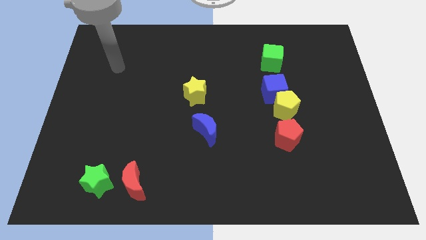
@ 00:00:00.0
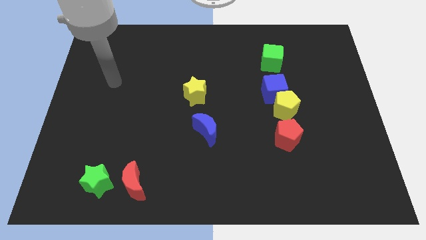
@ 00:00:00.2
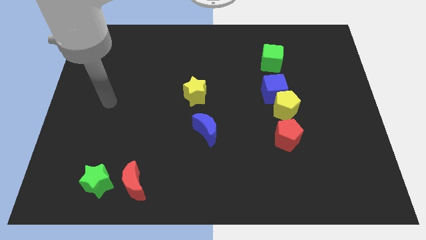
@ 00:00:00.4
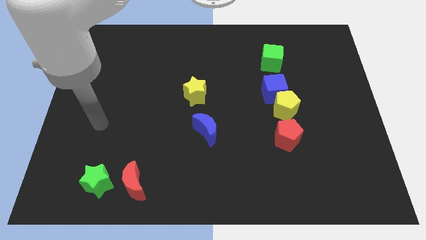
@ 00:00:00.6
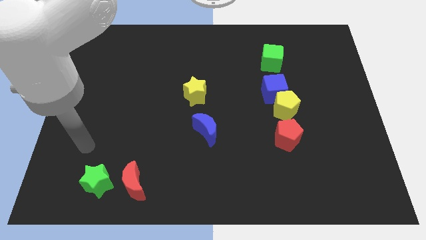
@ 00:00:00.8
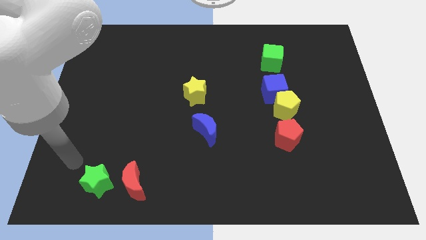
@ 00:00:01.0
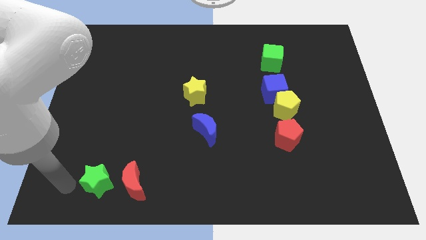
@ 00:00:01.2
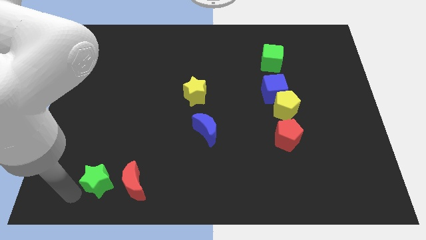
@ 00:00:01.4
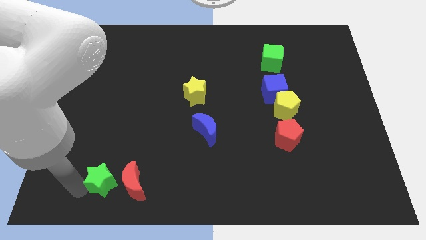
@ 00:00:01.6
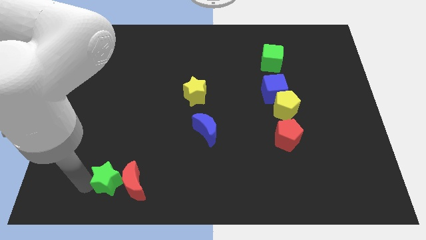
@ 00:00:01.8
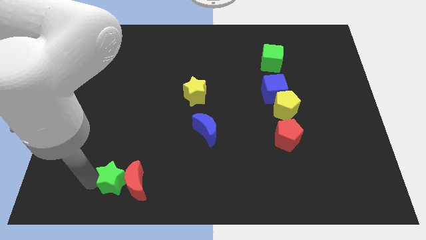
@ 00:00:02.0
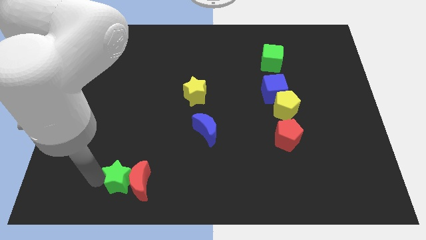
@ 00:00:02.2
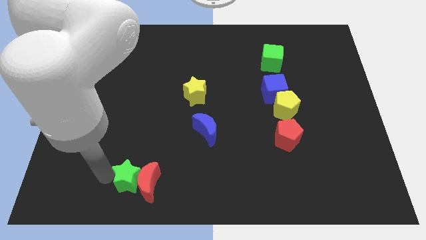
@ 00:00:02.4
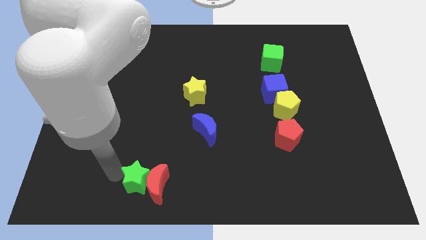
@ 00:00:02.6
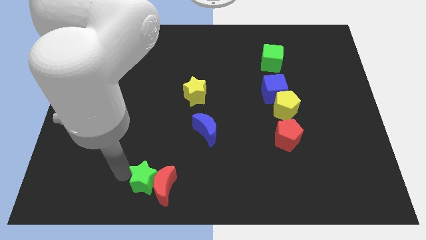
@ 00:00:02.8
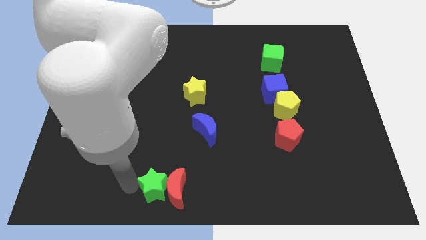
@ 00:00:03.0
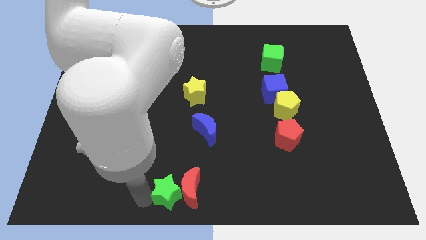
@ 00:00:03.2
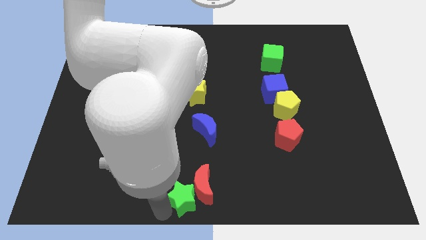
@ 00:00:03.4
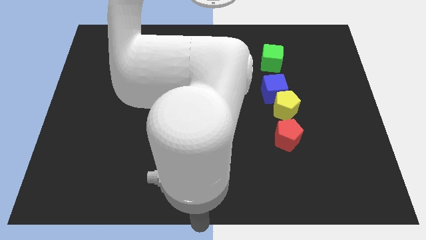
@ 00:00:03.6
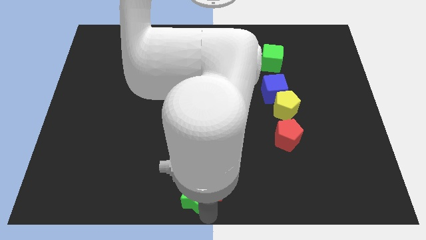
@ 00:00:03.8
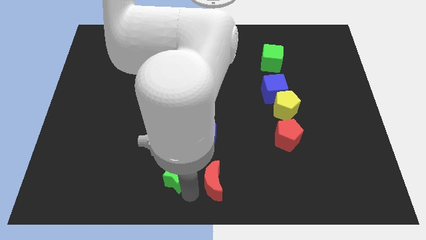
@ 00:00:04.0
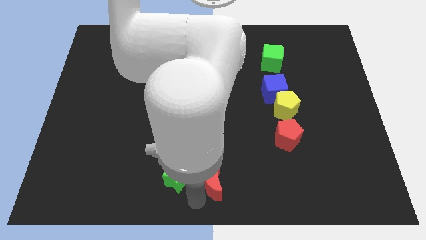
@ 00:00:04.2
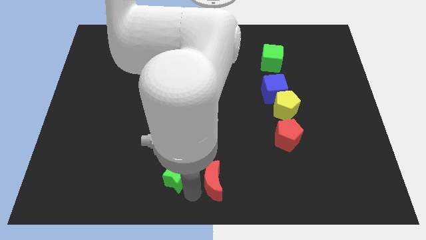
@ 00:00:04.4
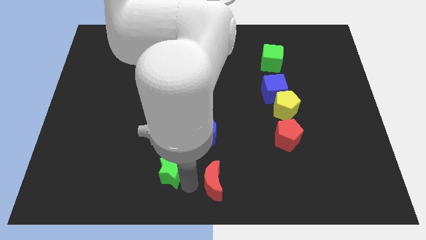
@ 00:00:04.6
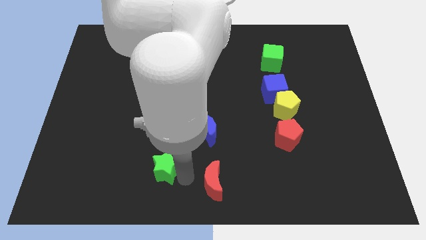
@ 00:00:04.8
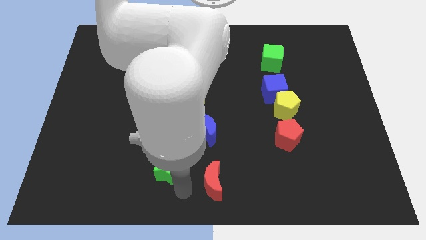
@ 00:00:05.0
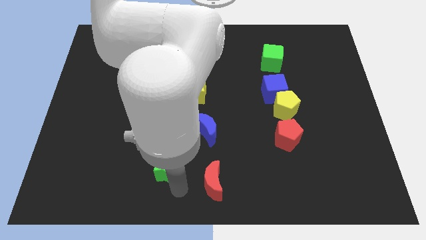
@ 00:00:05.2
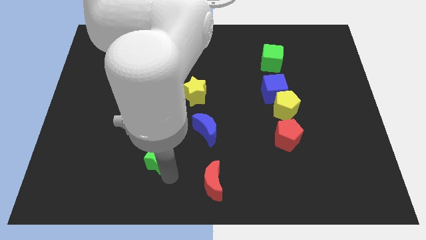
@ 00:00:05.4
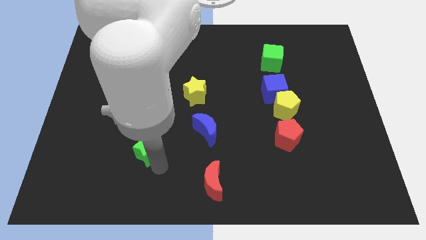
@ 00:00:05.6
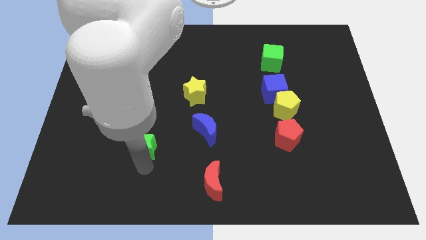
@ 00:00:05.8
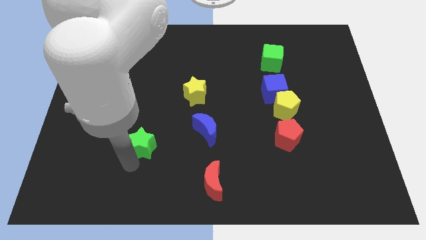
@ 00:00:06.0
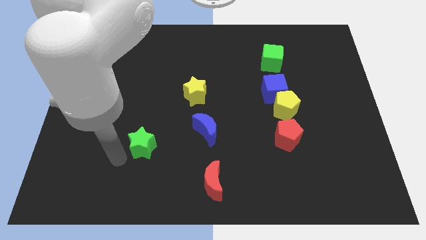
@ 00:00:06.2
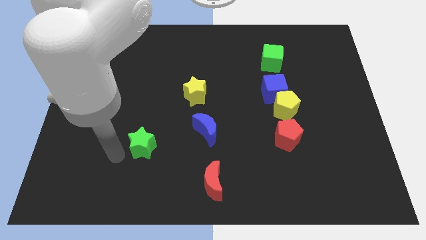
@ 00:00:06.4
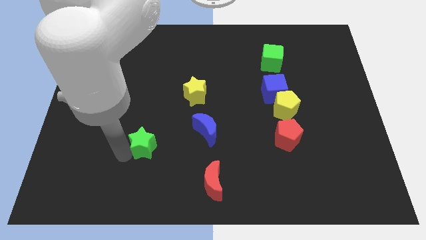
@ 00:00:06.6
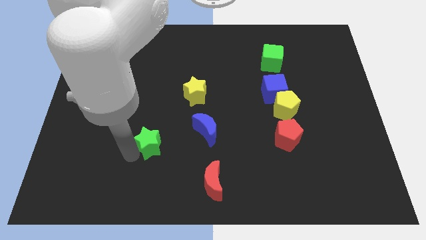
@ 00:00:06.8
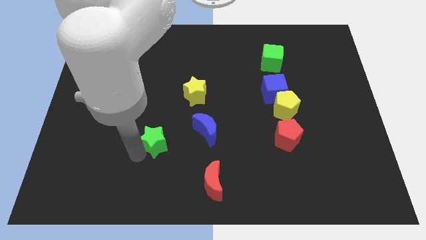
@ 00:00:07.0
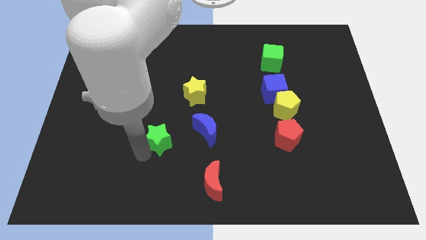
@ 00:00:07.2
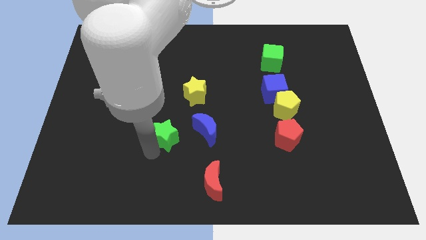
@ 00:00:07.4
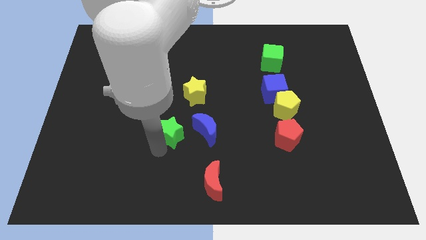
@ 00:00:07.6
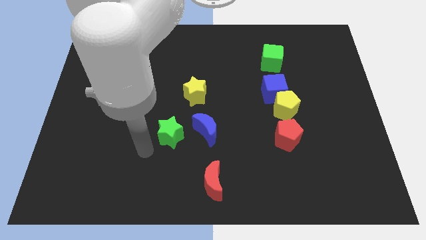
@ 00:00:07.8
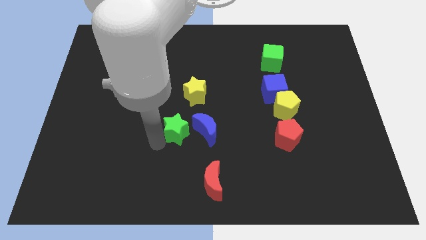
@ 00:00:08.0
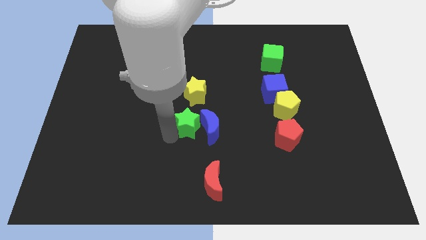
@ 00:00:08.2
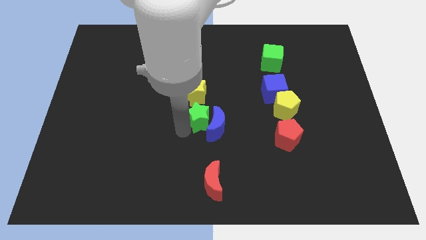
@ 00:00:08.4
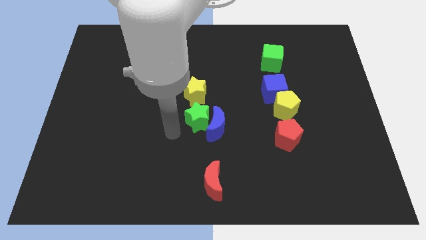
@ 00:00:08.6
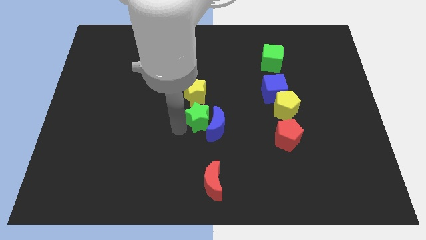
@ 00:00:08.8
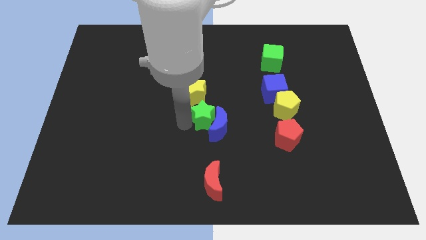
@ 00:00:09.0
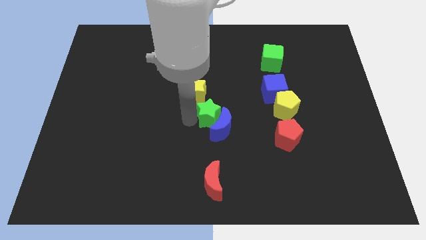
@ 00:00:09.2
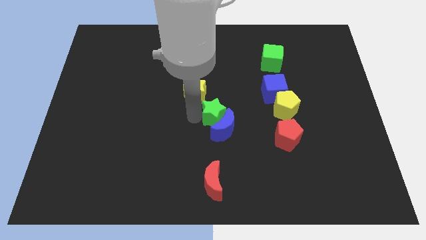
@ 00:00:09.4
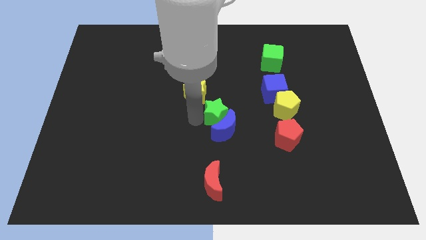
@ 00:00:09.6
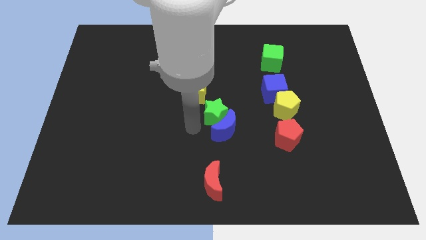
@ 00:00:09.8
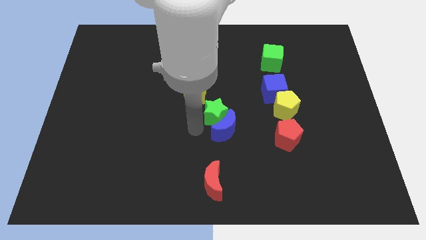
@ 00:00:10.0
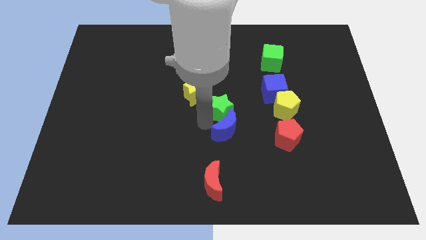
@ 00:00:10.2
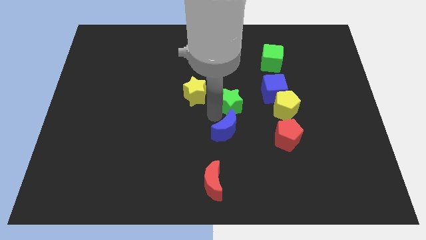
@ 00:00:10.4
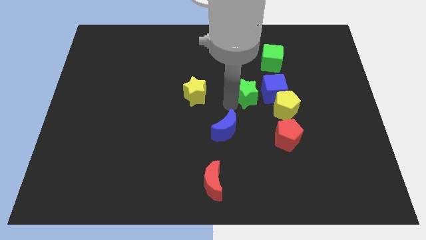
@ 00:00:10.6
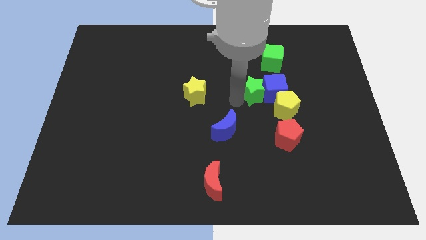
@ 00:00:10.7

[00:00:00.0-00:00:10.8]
move the green star next to the blue cube

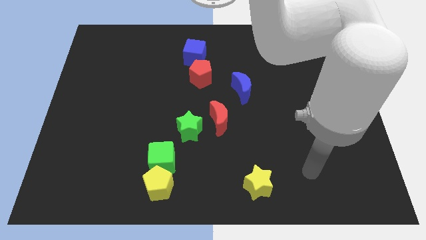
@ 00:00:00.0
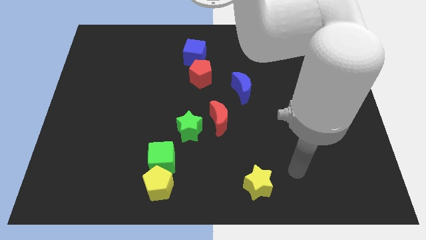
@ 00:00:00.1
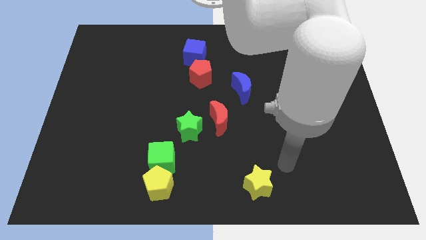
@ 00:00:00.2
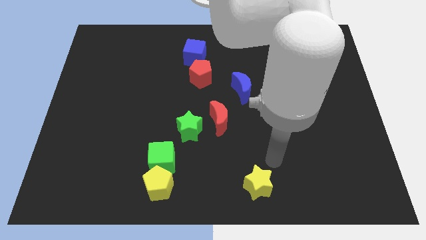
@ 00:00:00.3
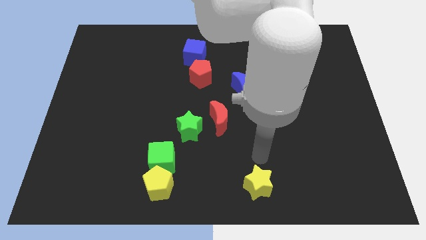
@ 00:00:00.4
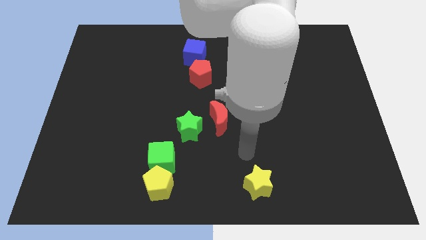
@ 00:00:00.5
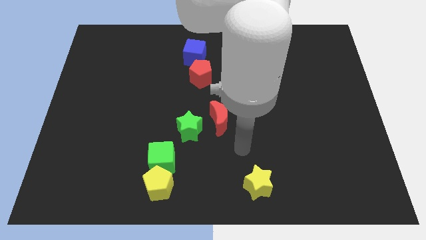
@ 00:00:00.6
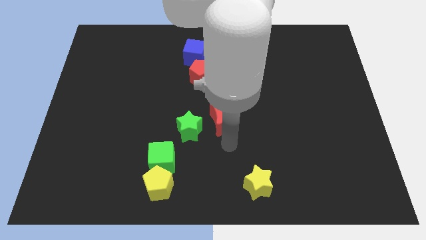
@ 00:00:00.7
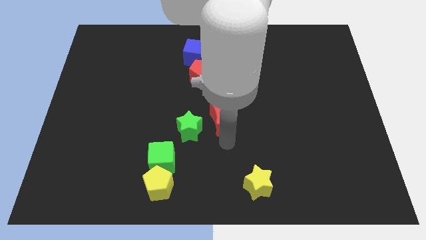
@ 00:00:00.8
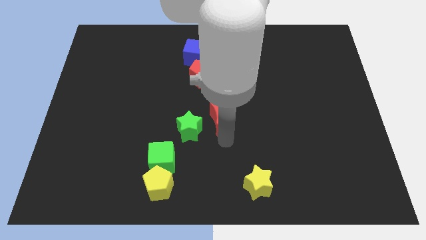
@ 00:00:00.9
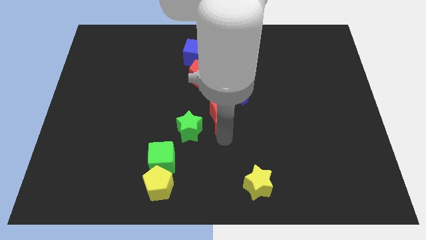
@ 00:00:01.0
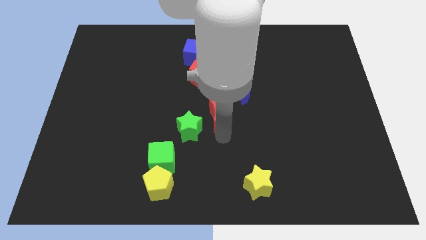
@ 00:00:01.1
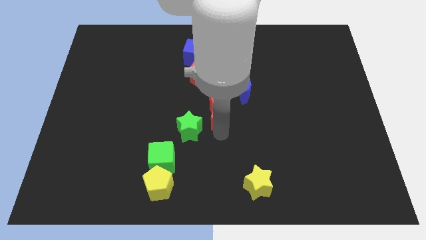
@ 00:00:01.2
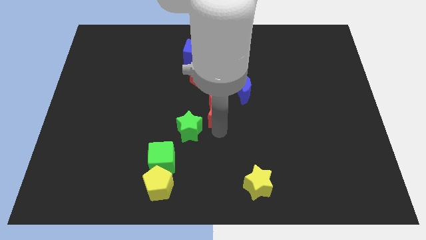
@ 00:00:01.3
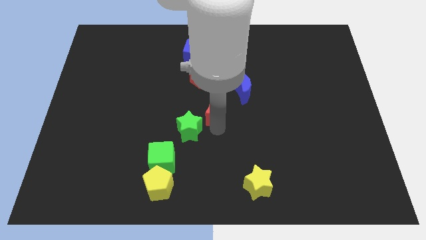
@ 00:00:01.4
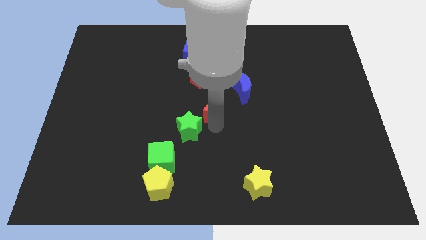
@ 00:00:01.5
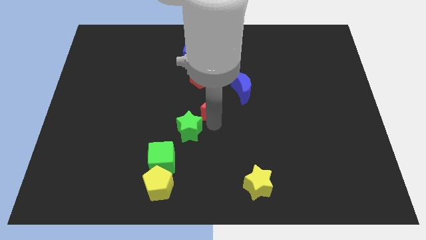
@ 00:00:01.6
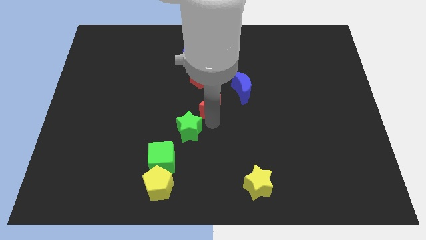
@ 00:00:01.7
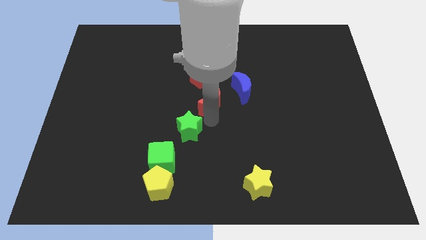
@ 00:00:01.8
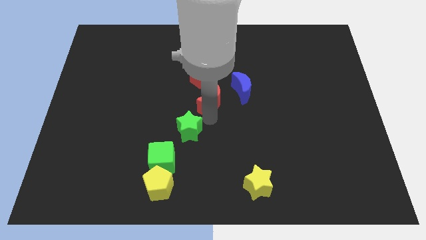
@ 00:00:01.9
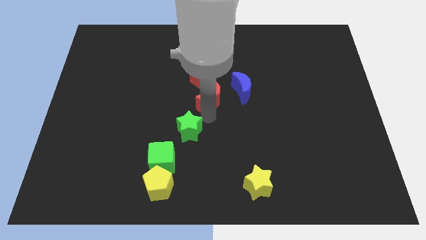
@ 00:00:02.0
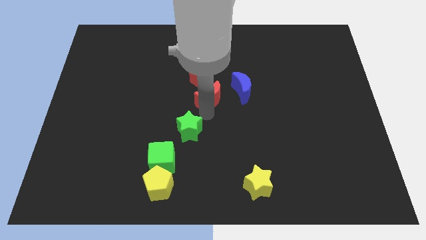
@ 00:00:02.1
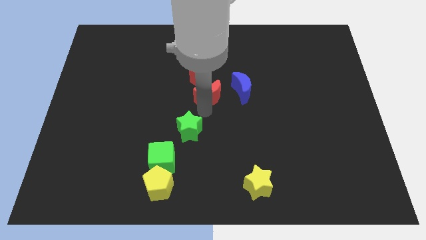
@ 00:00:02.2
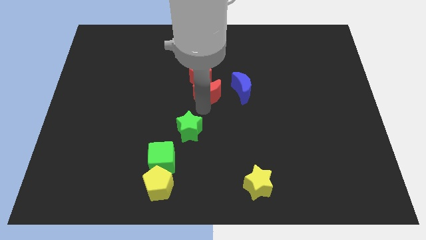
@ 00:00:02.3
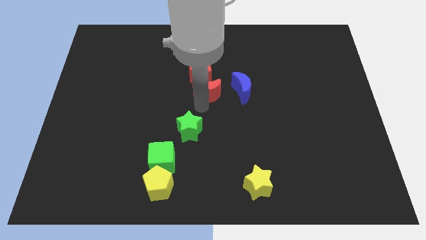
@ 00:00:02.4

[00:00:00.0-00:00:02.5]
put the red moon next to the red pentagon
